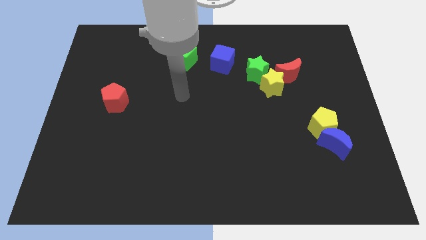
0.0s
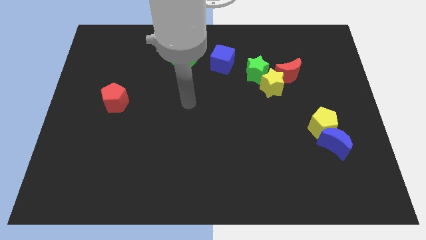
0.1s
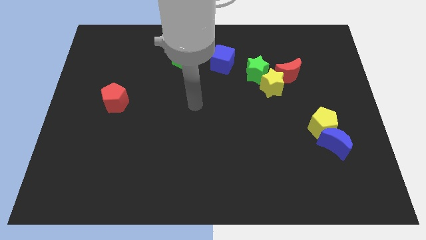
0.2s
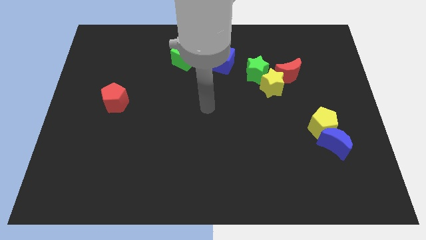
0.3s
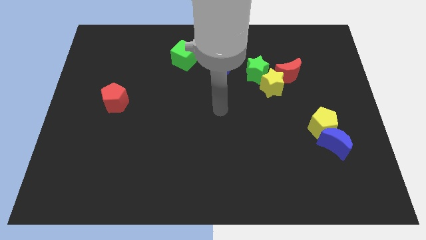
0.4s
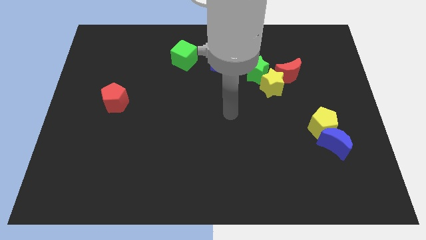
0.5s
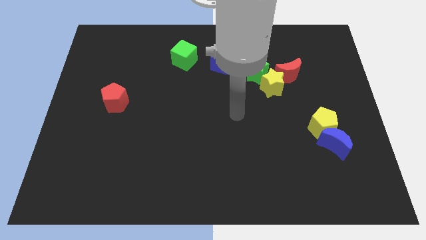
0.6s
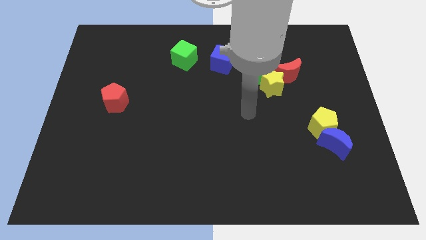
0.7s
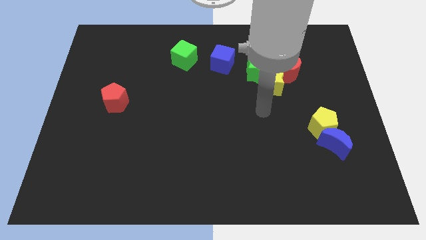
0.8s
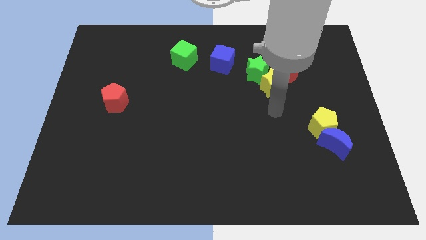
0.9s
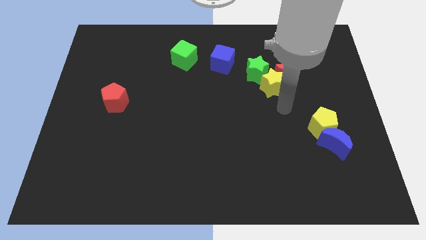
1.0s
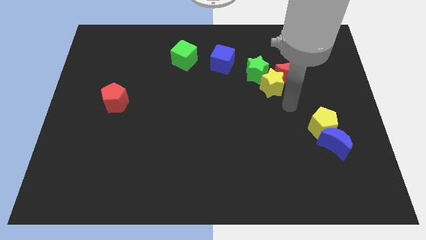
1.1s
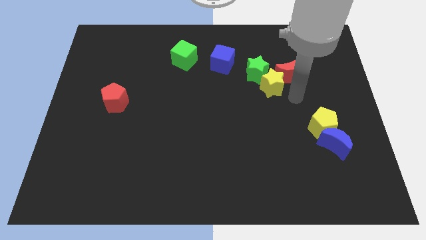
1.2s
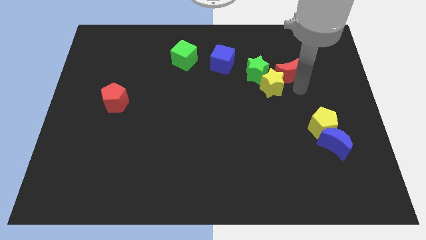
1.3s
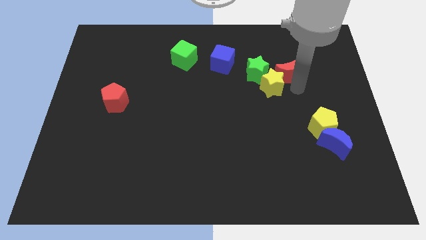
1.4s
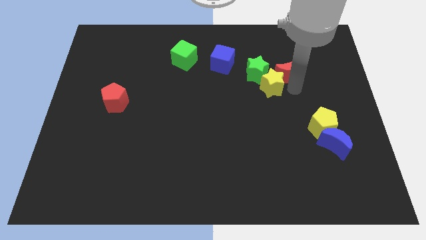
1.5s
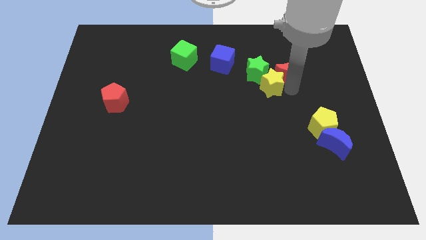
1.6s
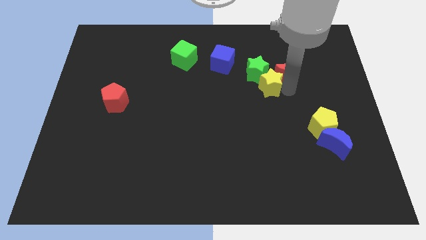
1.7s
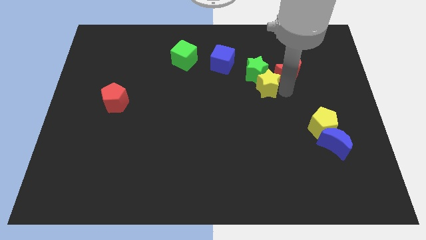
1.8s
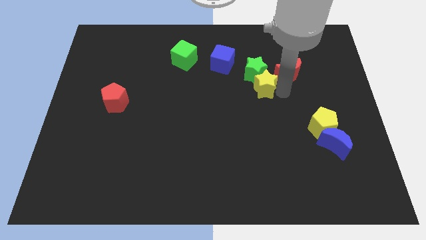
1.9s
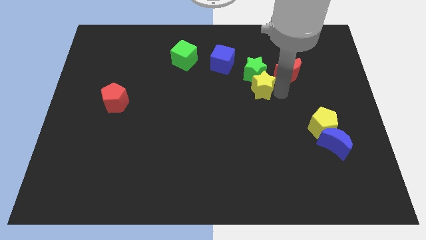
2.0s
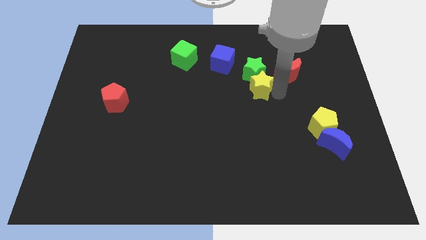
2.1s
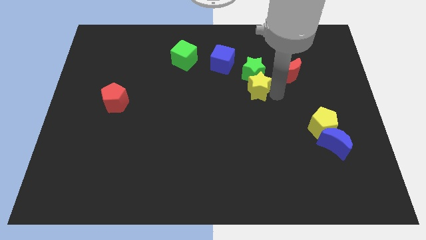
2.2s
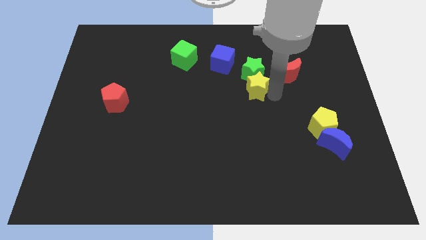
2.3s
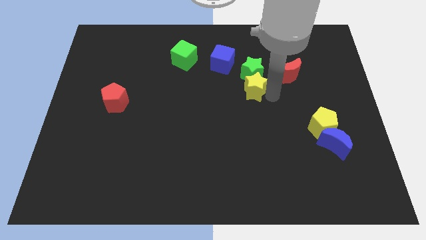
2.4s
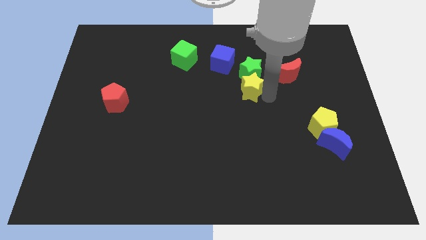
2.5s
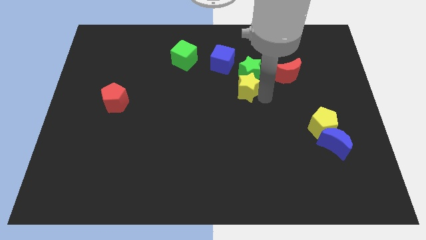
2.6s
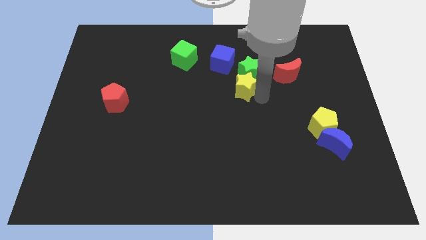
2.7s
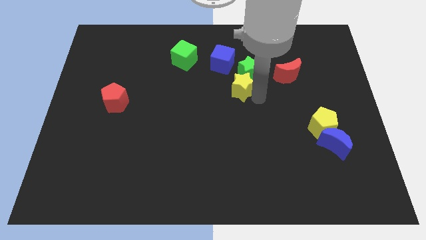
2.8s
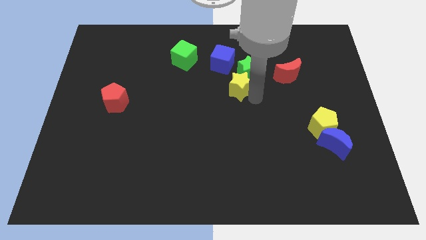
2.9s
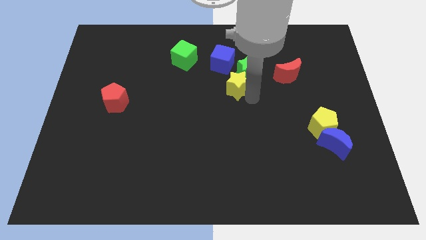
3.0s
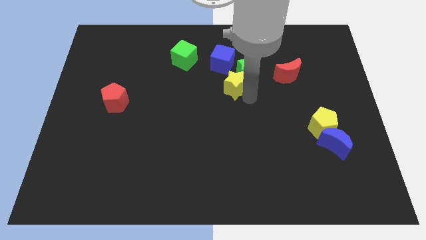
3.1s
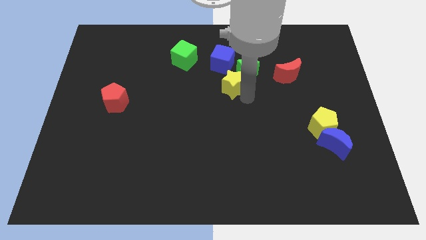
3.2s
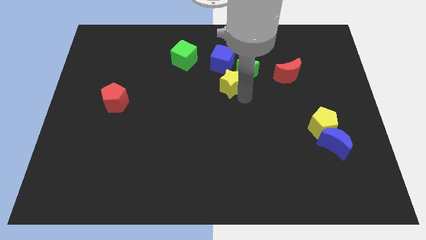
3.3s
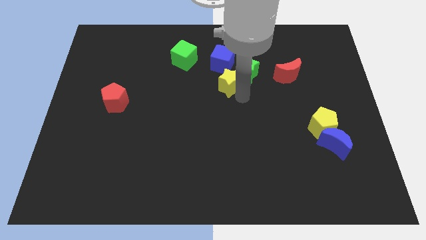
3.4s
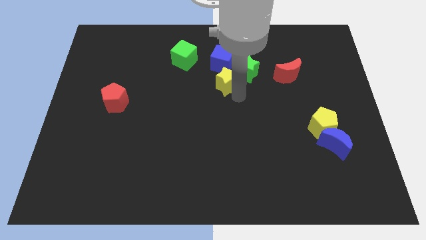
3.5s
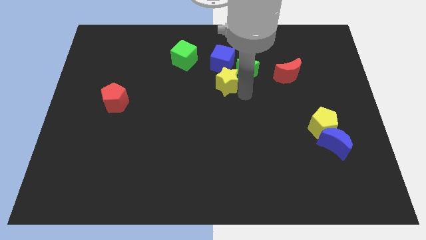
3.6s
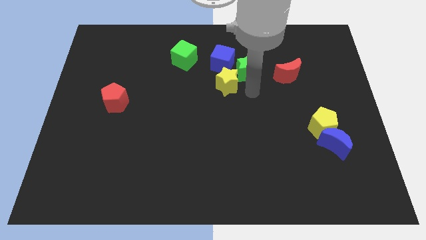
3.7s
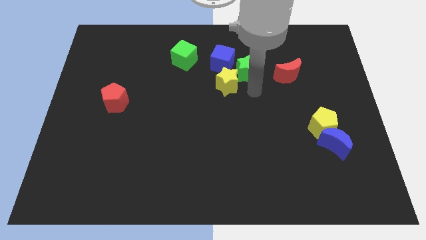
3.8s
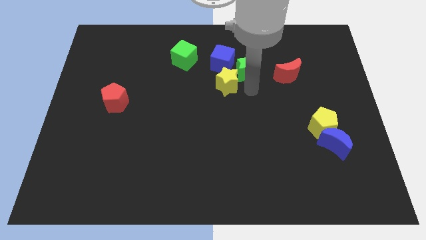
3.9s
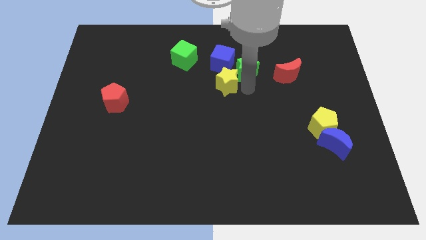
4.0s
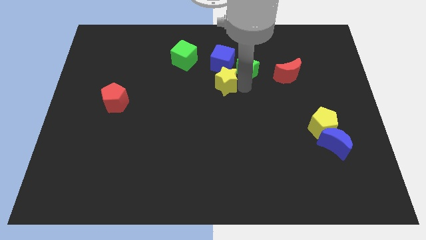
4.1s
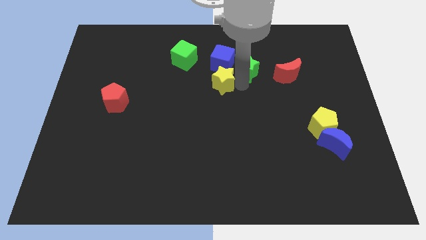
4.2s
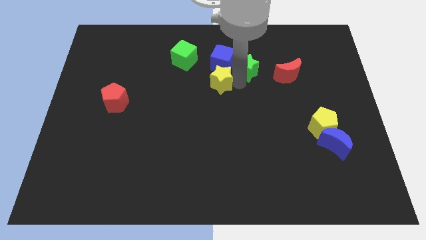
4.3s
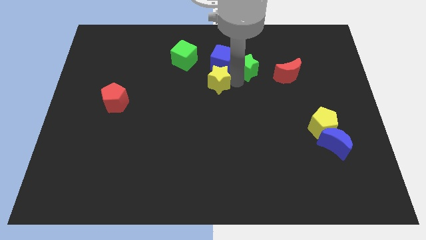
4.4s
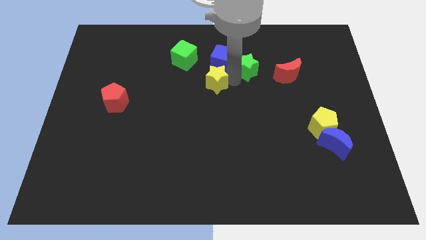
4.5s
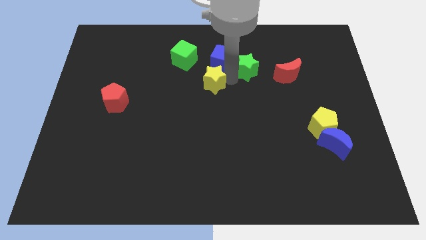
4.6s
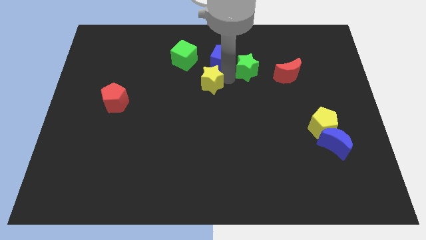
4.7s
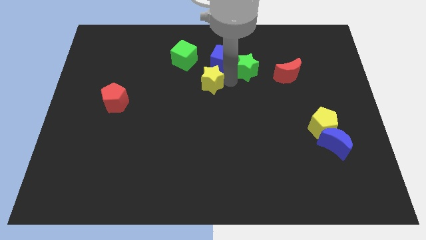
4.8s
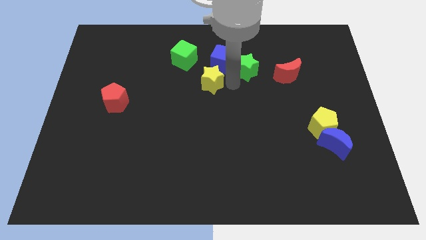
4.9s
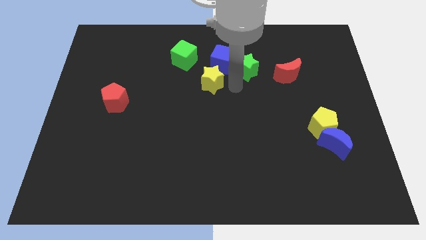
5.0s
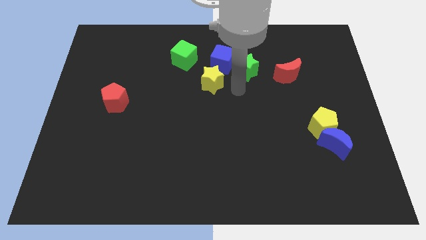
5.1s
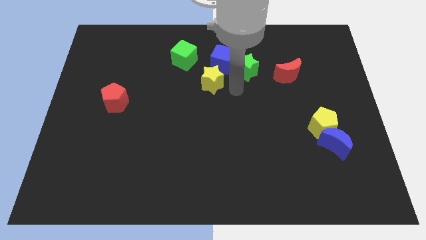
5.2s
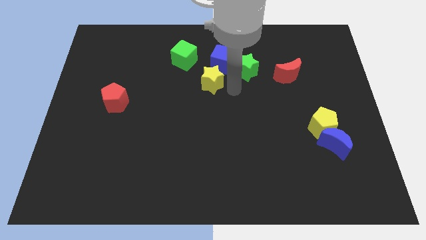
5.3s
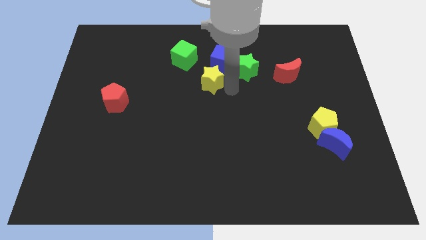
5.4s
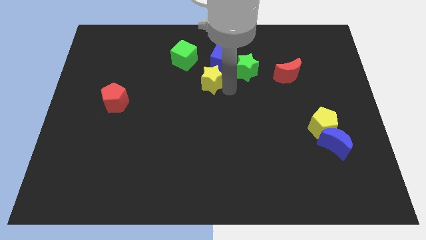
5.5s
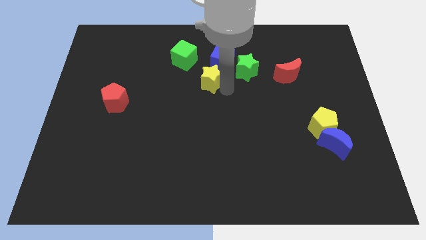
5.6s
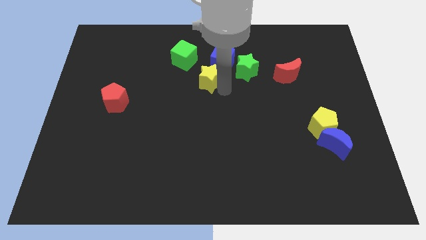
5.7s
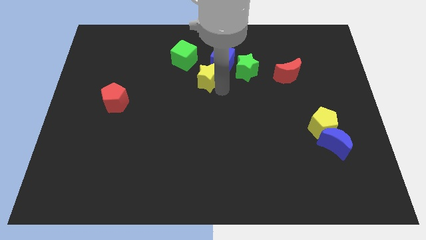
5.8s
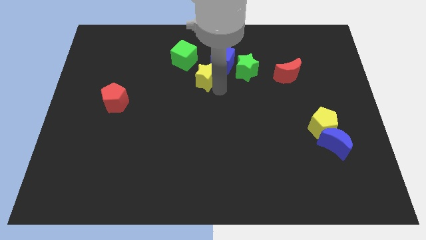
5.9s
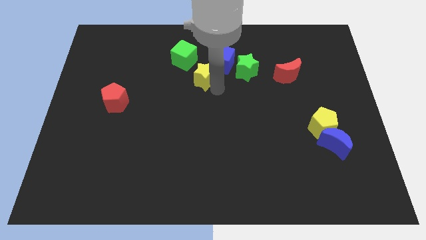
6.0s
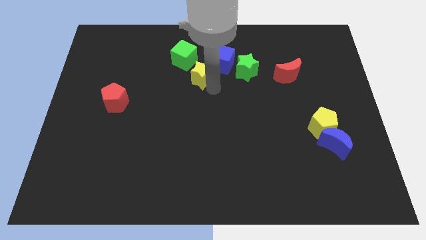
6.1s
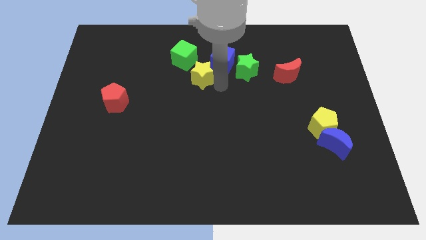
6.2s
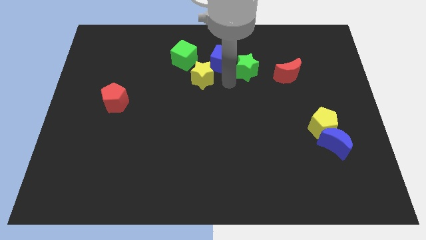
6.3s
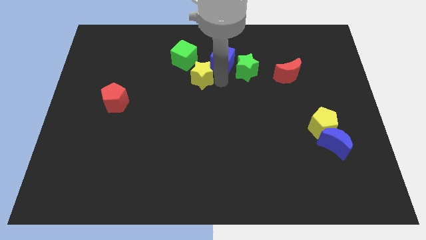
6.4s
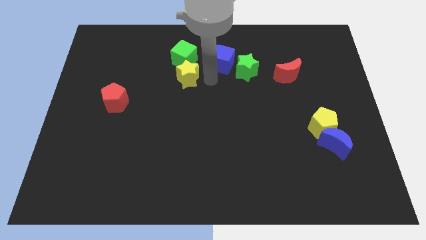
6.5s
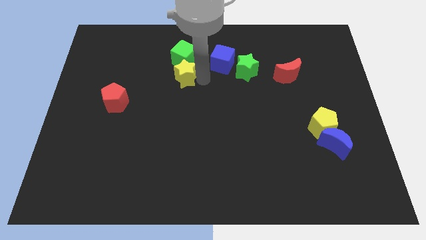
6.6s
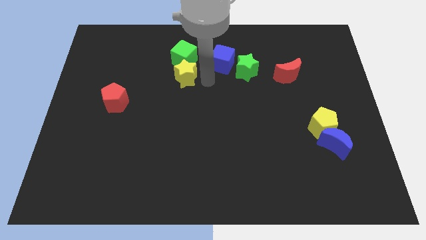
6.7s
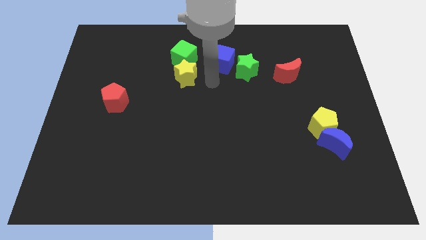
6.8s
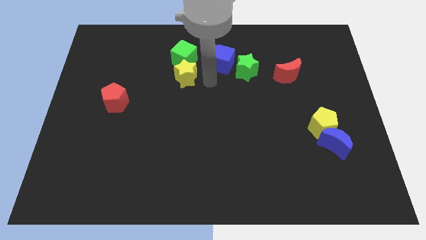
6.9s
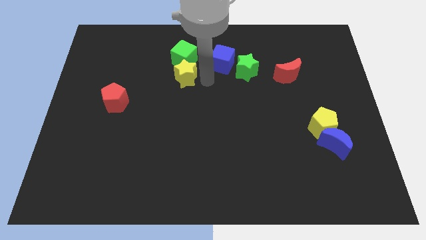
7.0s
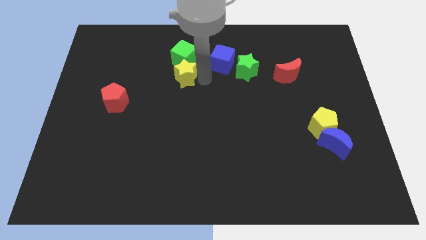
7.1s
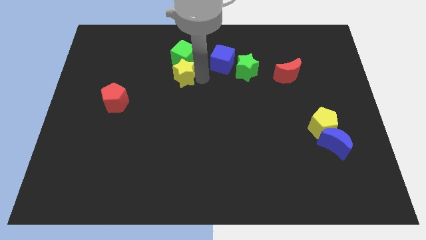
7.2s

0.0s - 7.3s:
push the yellow star to the bottom left side of the green cube
